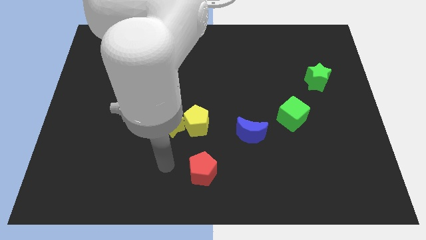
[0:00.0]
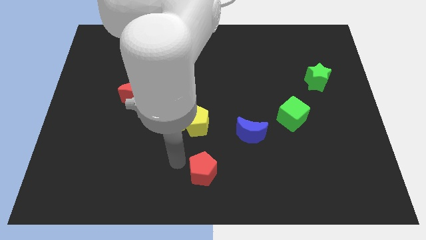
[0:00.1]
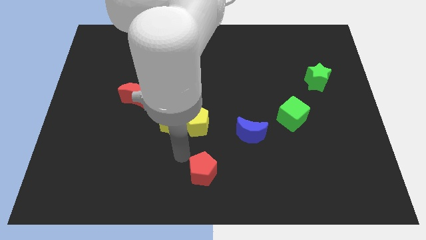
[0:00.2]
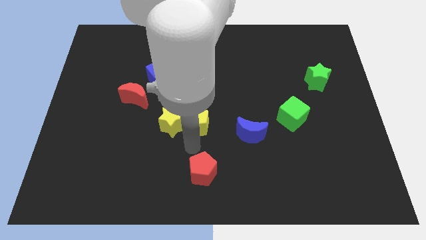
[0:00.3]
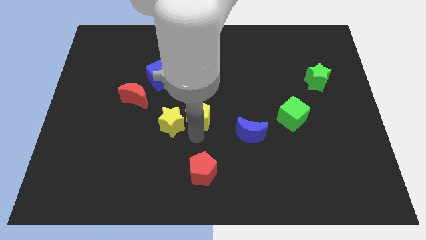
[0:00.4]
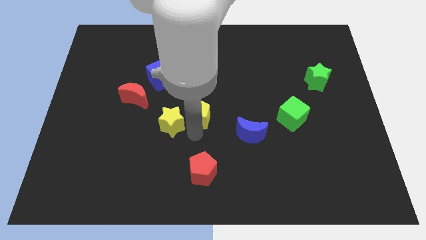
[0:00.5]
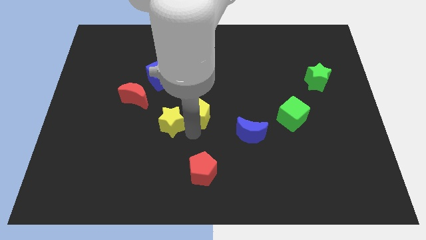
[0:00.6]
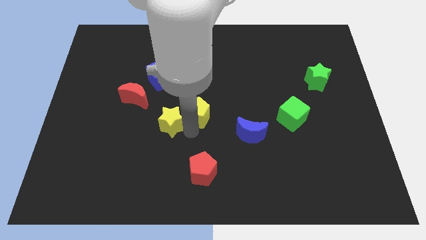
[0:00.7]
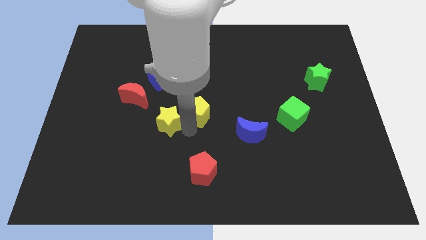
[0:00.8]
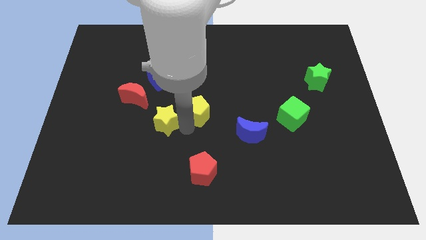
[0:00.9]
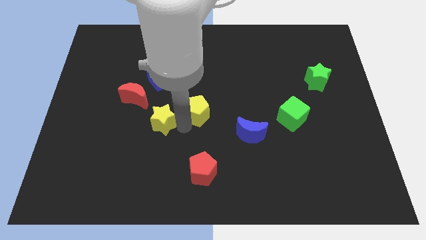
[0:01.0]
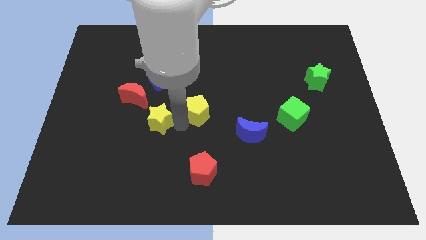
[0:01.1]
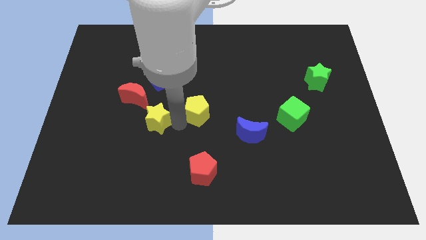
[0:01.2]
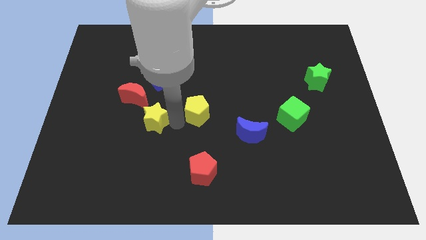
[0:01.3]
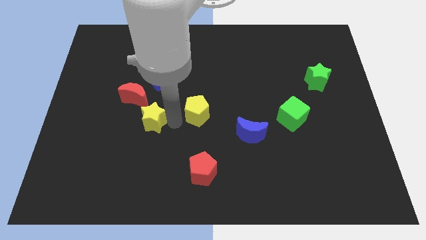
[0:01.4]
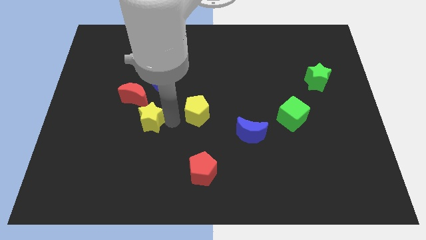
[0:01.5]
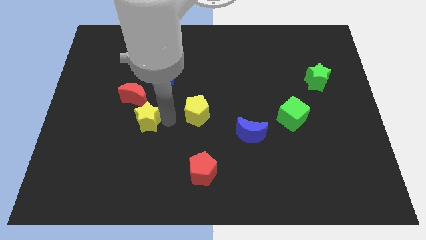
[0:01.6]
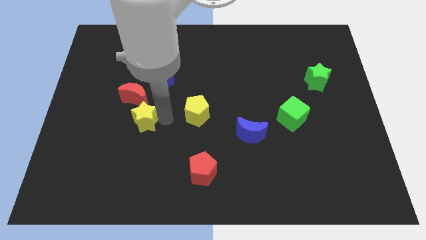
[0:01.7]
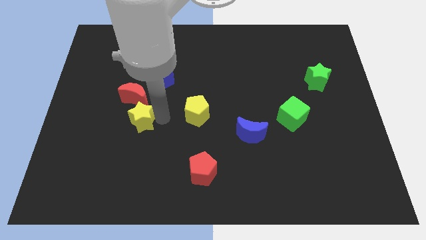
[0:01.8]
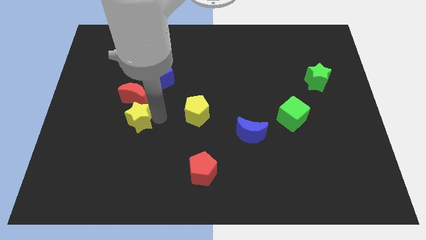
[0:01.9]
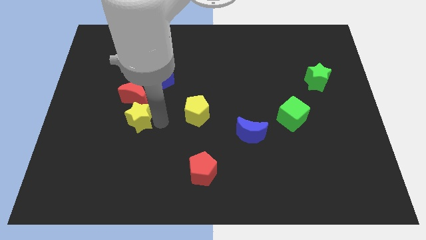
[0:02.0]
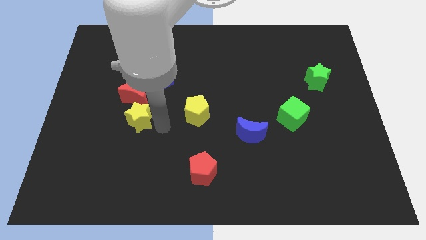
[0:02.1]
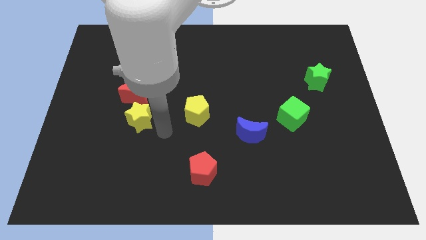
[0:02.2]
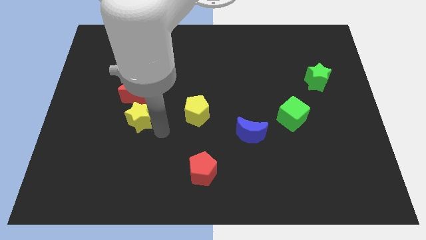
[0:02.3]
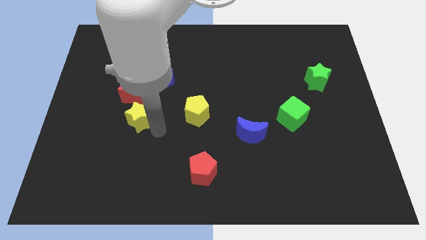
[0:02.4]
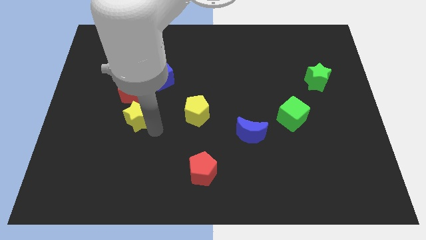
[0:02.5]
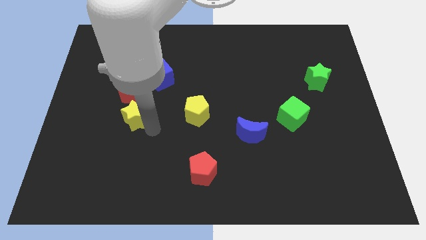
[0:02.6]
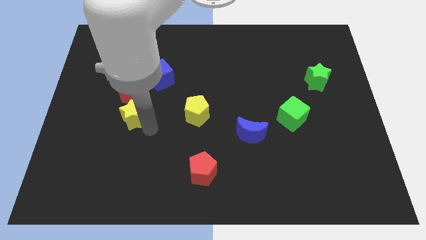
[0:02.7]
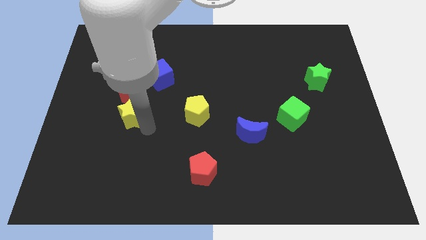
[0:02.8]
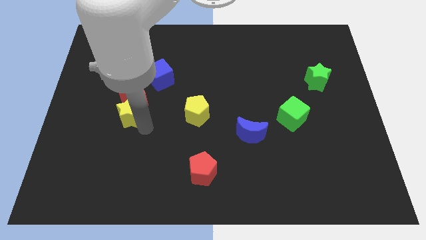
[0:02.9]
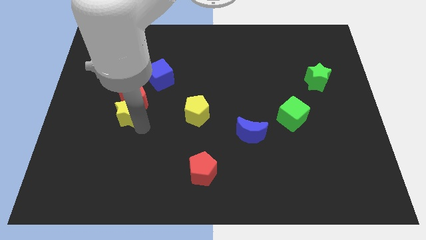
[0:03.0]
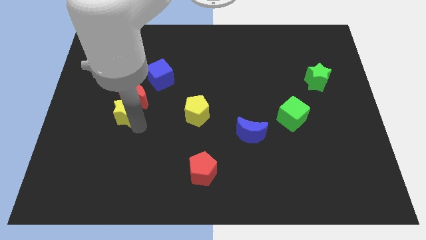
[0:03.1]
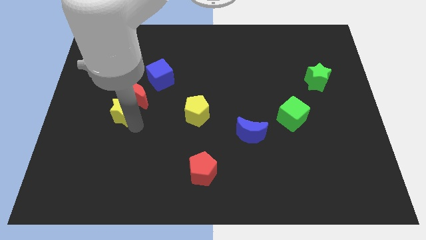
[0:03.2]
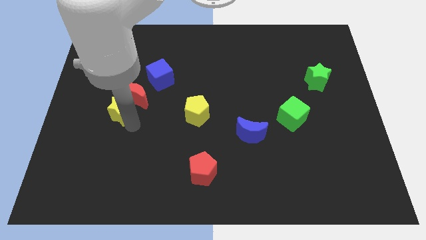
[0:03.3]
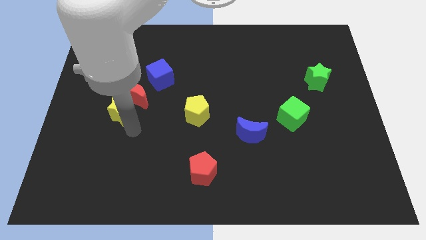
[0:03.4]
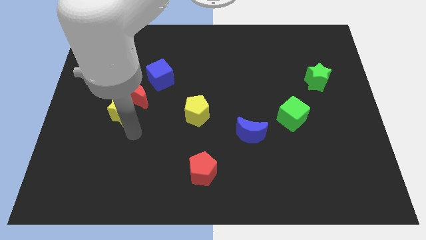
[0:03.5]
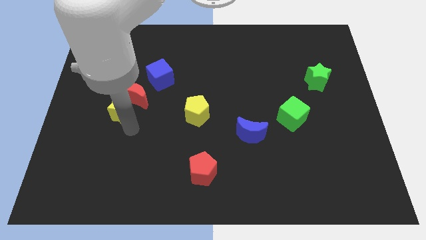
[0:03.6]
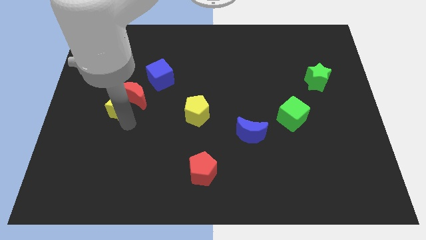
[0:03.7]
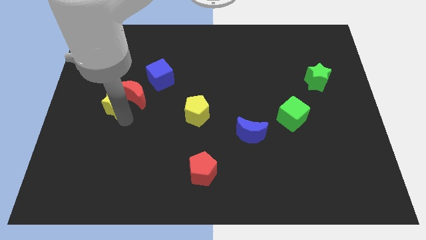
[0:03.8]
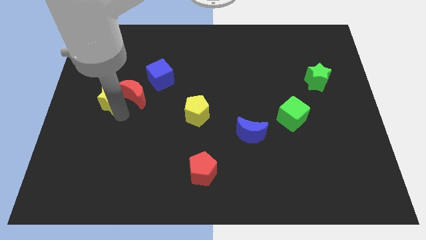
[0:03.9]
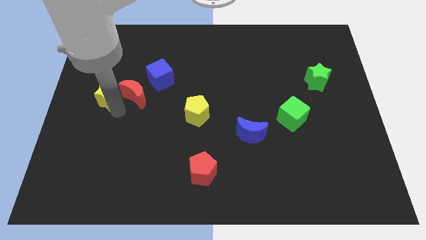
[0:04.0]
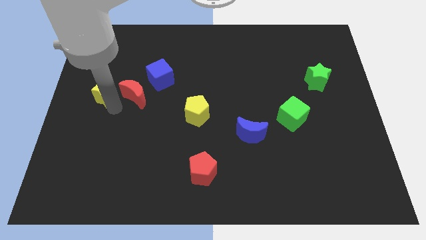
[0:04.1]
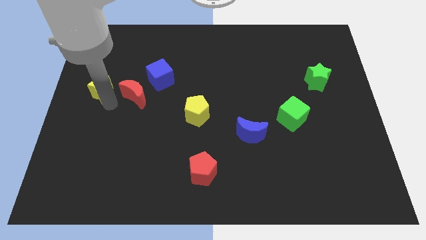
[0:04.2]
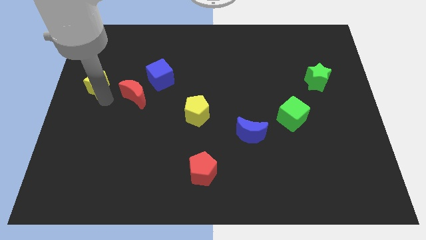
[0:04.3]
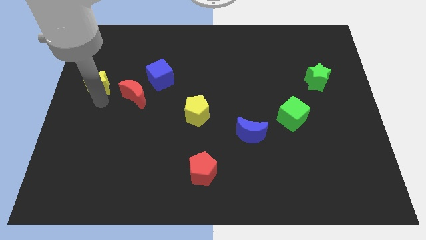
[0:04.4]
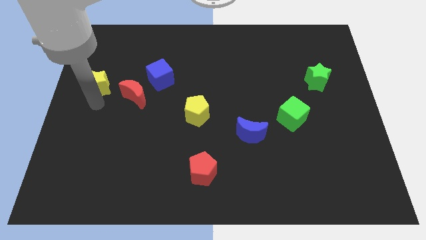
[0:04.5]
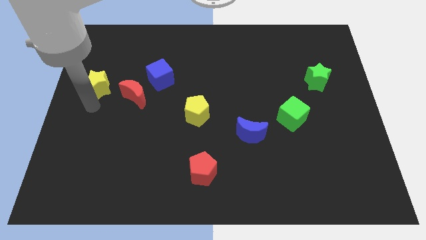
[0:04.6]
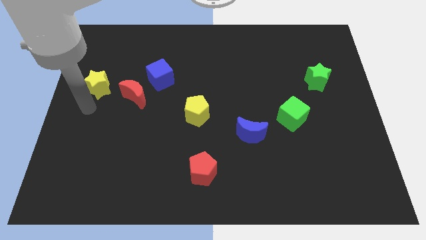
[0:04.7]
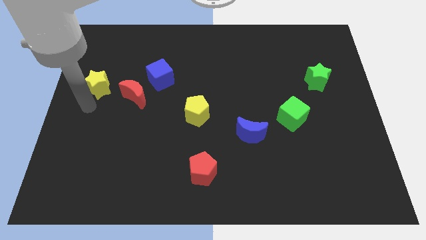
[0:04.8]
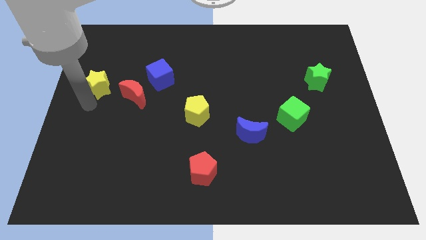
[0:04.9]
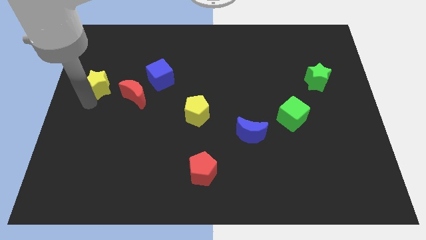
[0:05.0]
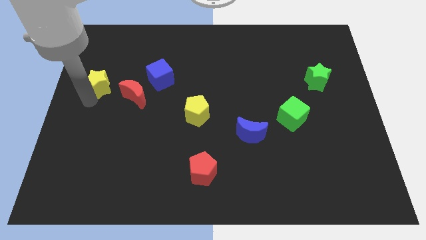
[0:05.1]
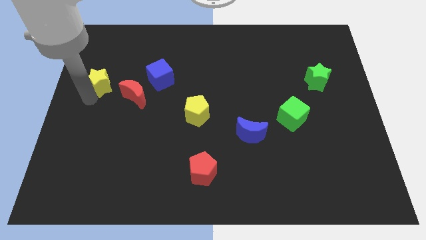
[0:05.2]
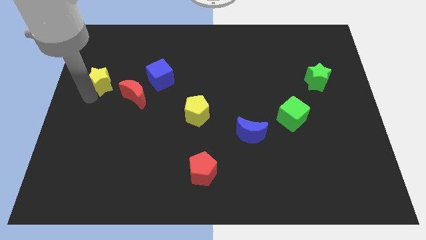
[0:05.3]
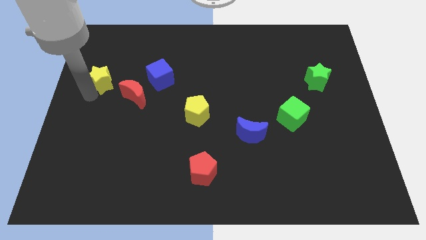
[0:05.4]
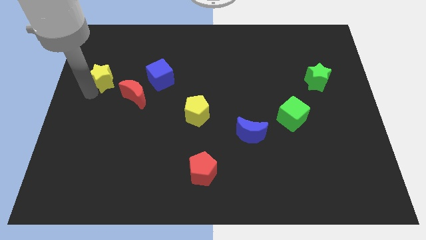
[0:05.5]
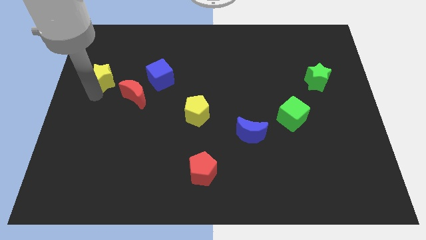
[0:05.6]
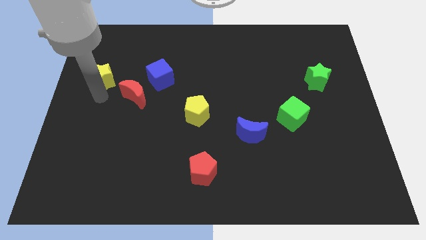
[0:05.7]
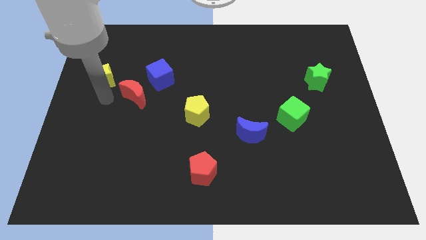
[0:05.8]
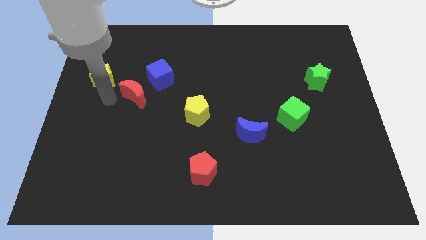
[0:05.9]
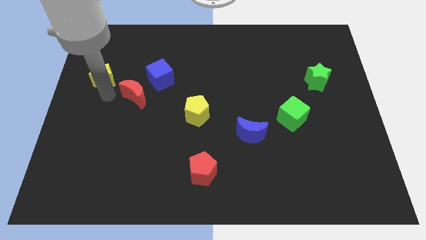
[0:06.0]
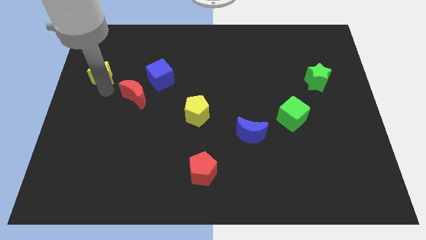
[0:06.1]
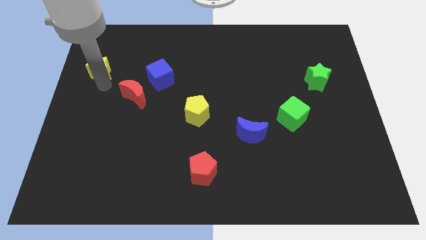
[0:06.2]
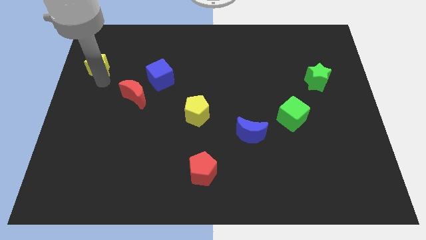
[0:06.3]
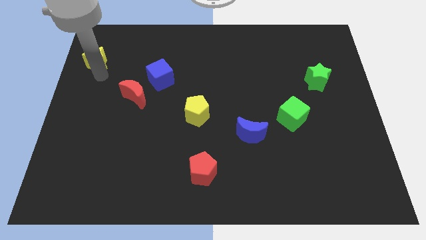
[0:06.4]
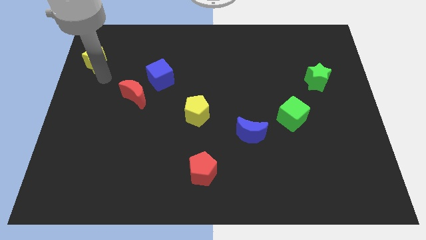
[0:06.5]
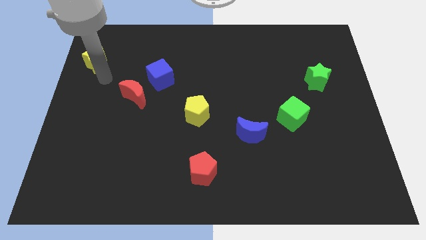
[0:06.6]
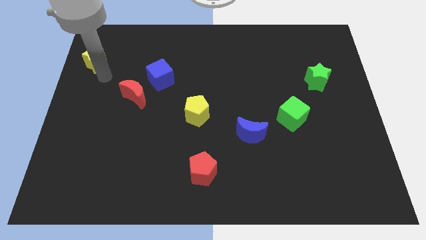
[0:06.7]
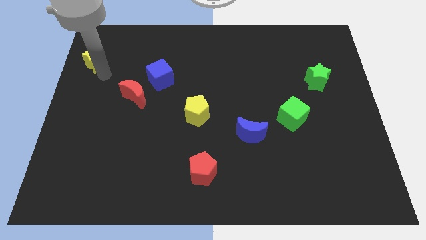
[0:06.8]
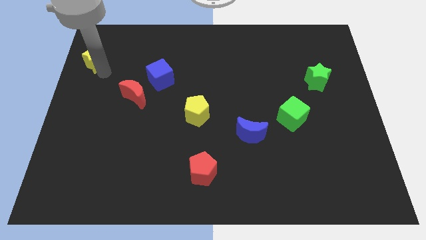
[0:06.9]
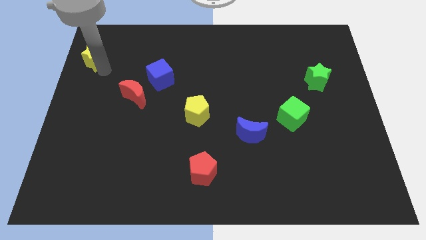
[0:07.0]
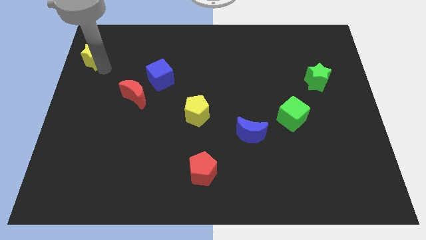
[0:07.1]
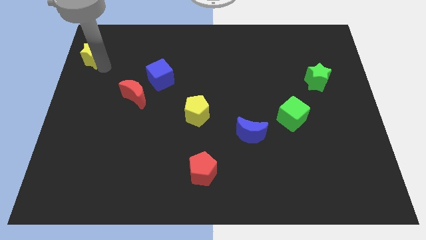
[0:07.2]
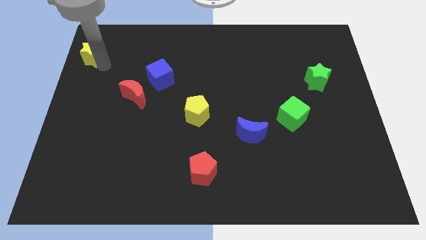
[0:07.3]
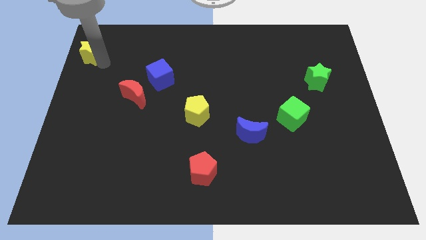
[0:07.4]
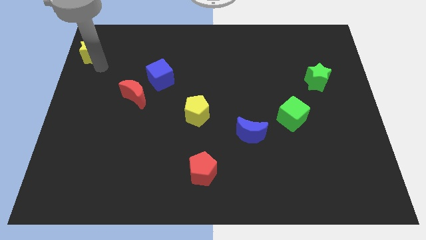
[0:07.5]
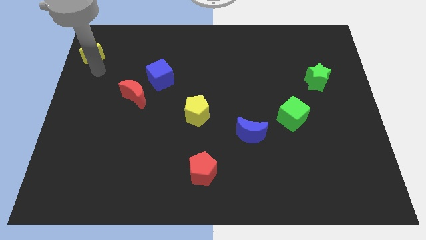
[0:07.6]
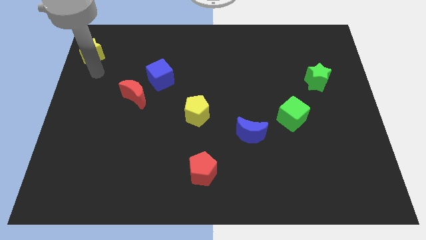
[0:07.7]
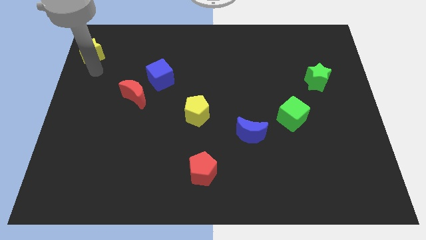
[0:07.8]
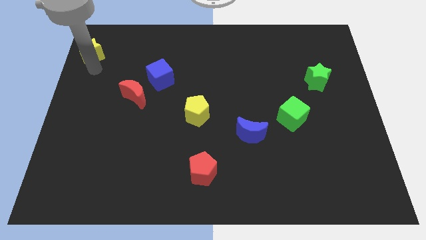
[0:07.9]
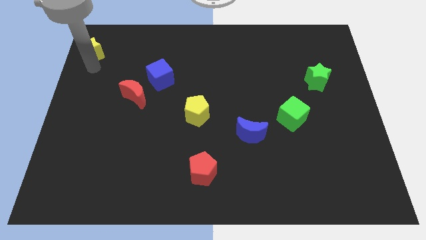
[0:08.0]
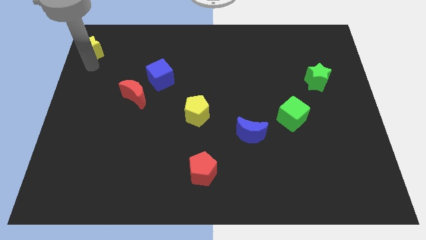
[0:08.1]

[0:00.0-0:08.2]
move the yellow star to the top left of the board
